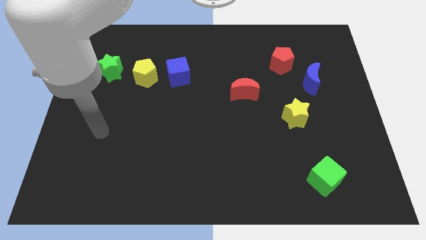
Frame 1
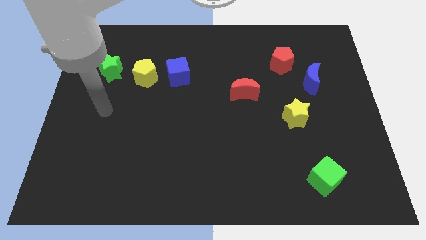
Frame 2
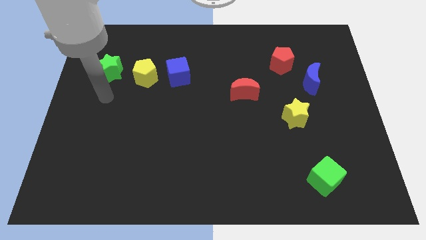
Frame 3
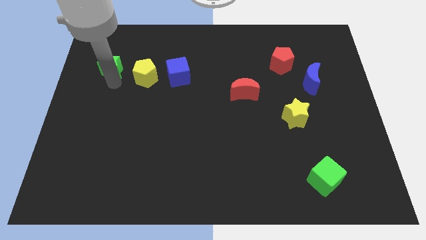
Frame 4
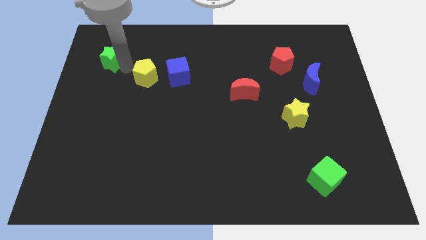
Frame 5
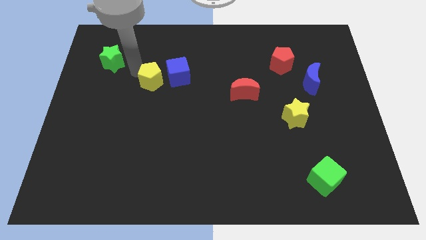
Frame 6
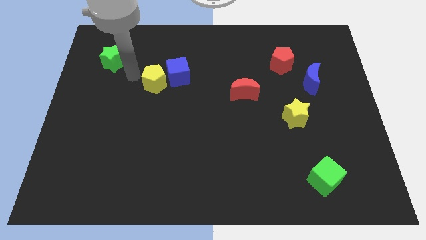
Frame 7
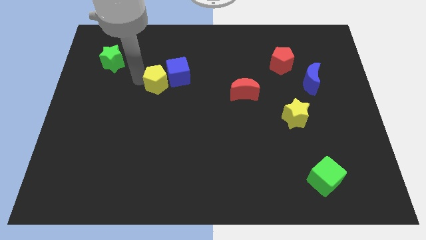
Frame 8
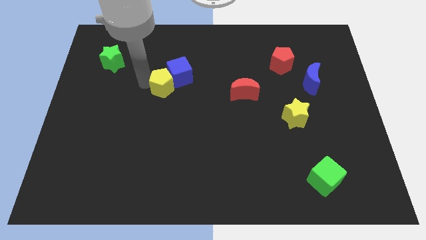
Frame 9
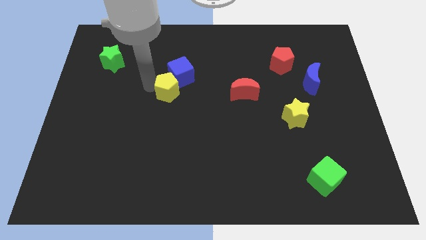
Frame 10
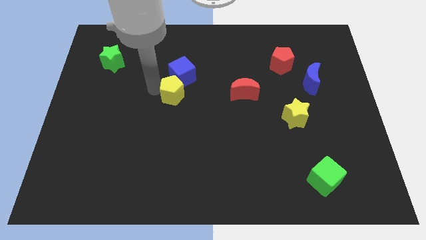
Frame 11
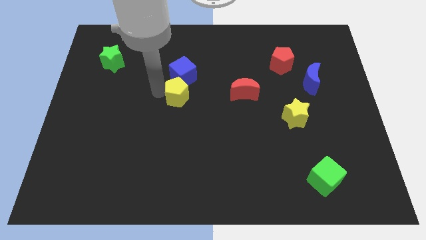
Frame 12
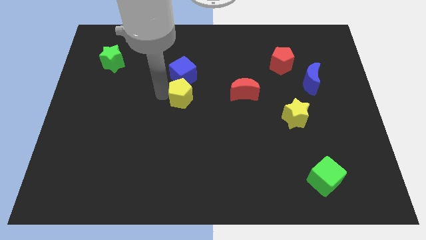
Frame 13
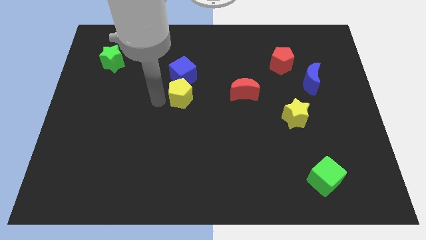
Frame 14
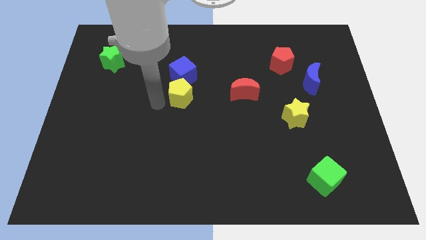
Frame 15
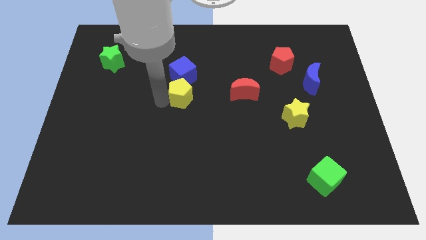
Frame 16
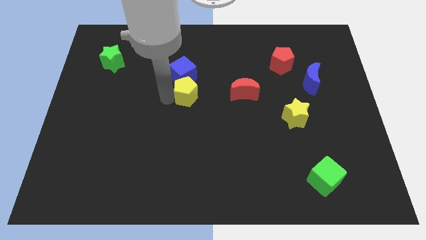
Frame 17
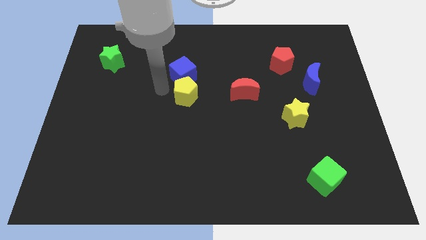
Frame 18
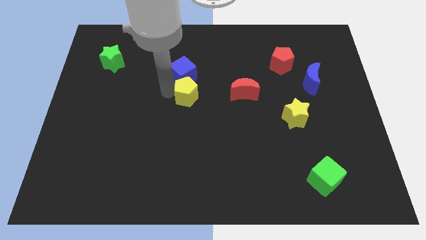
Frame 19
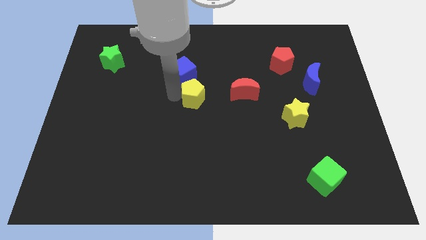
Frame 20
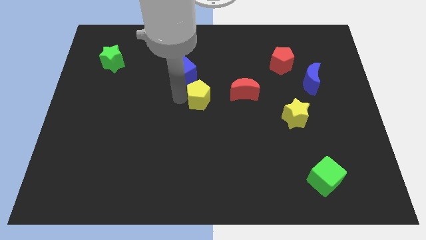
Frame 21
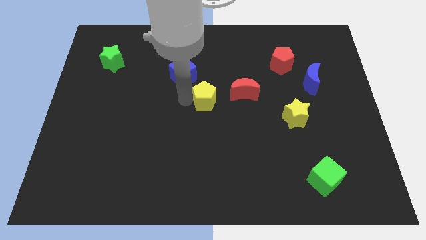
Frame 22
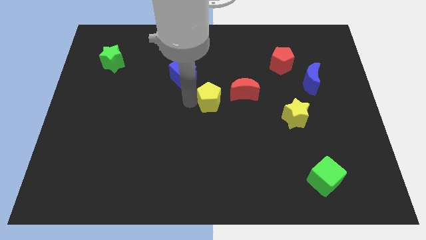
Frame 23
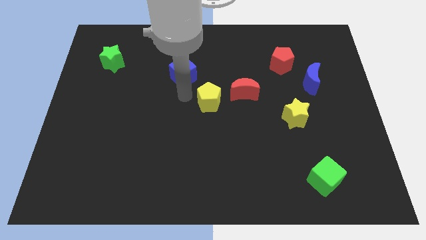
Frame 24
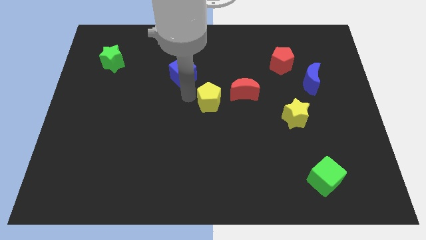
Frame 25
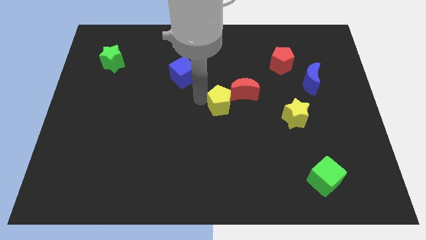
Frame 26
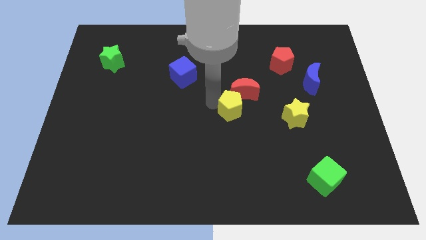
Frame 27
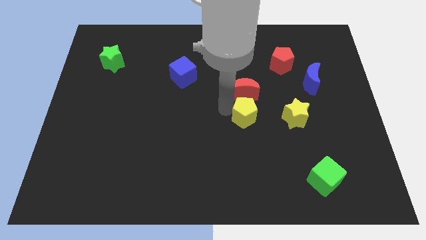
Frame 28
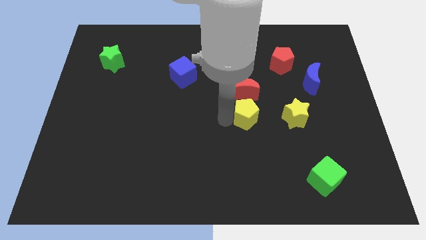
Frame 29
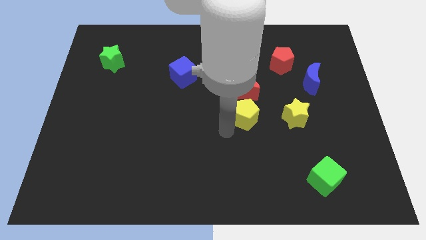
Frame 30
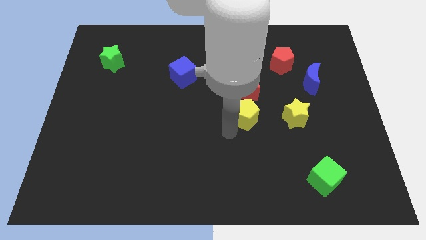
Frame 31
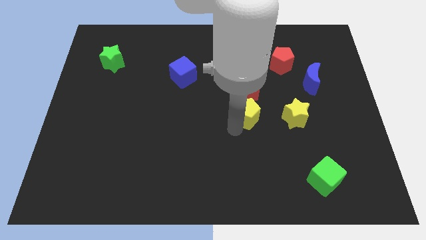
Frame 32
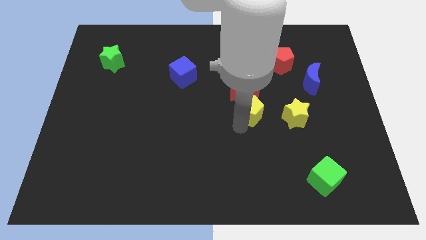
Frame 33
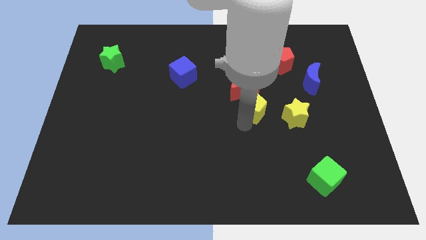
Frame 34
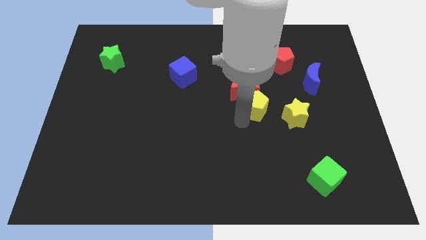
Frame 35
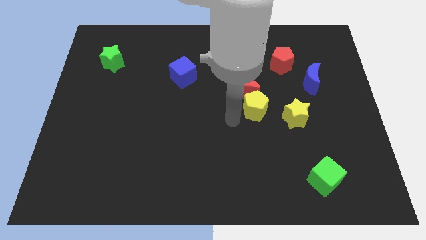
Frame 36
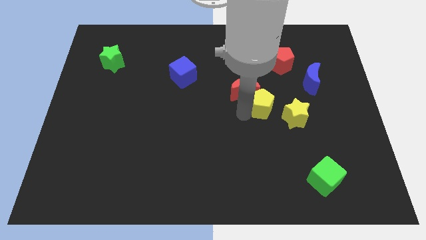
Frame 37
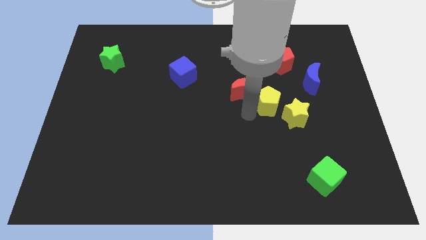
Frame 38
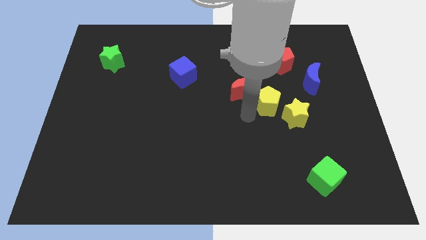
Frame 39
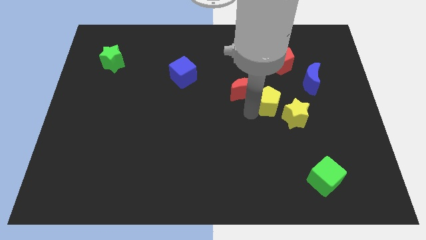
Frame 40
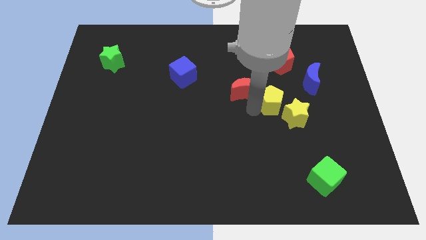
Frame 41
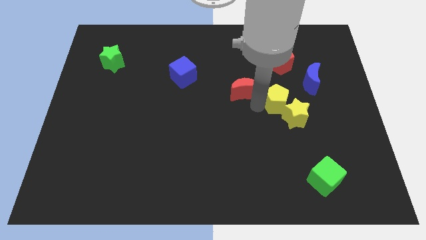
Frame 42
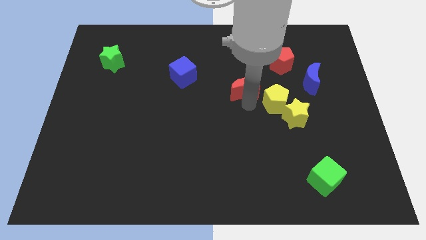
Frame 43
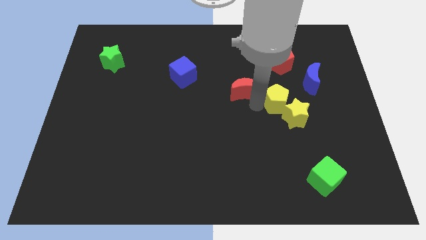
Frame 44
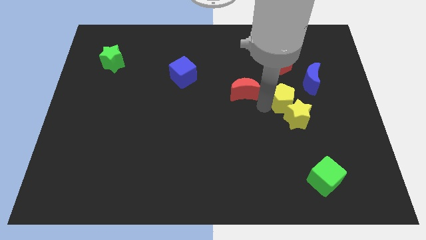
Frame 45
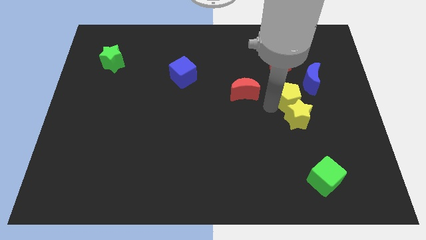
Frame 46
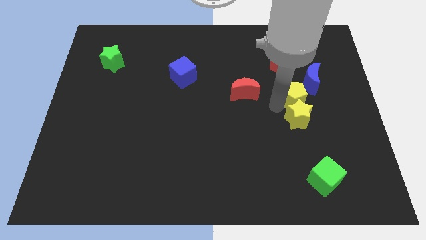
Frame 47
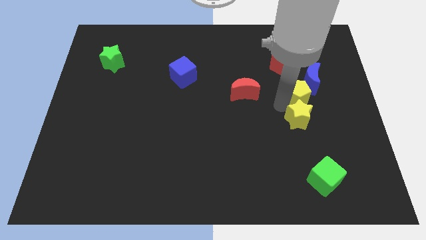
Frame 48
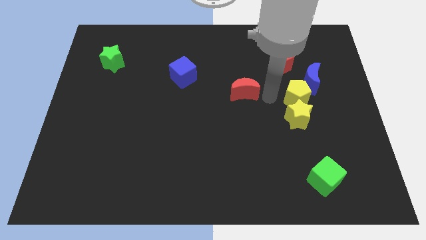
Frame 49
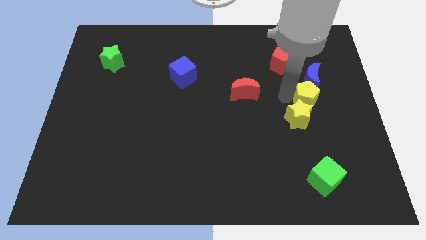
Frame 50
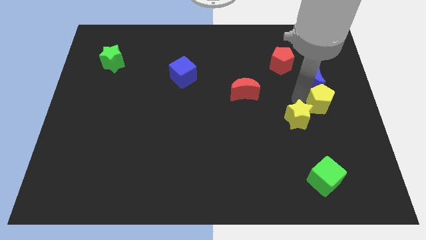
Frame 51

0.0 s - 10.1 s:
push the yellow pentagon to the center right

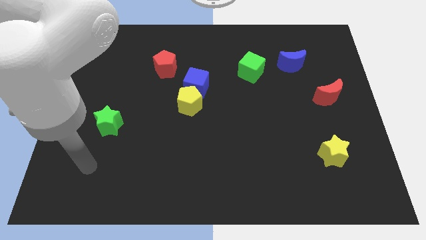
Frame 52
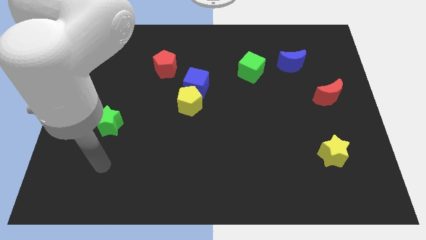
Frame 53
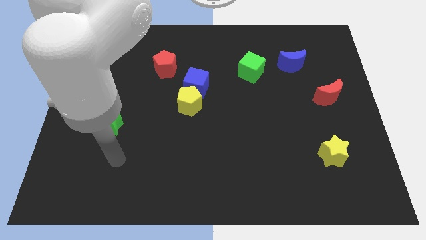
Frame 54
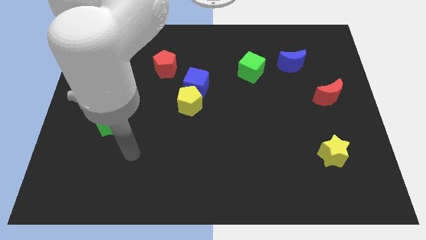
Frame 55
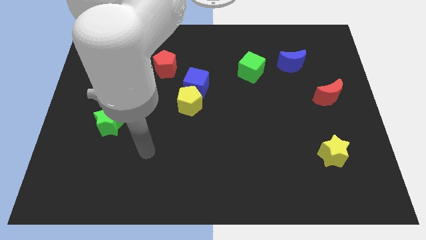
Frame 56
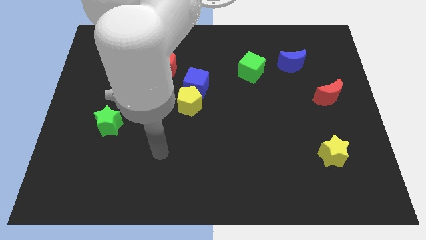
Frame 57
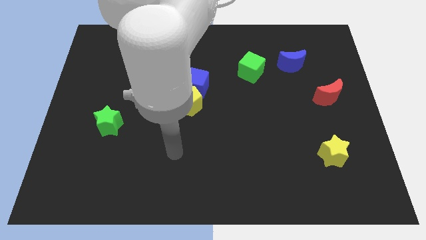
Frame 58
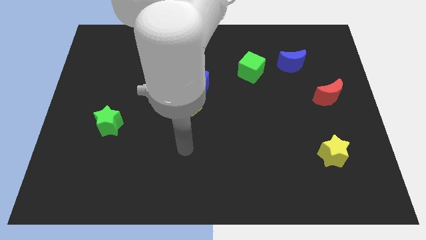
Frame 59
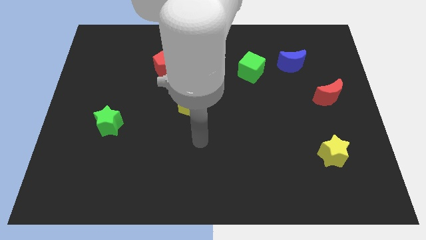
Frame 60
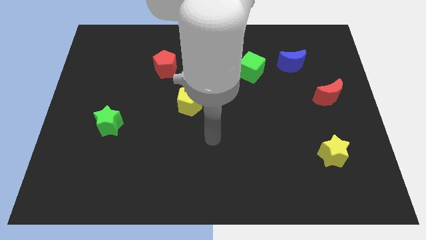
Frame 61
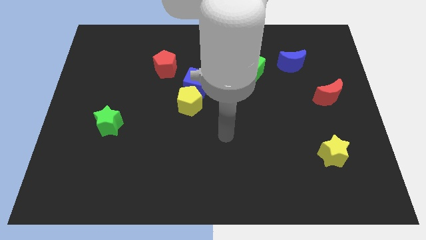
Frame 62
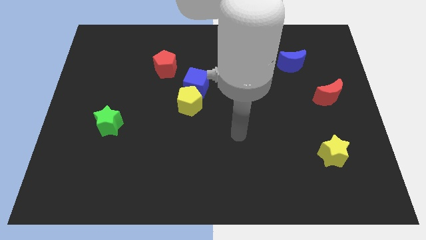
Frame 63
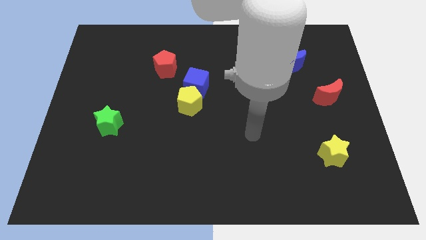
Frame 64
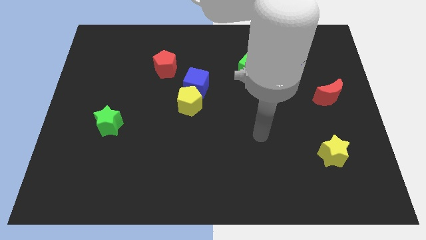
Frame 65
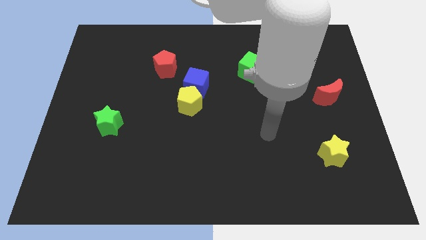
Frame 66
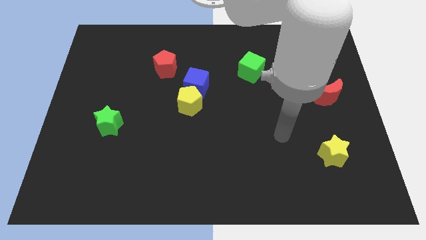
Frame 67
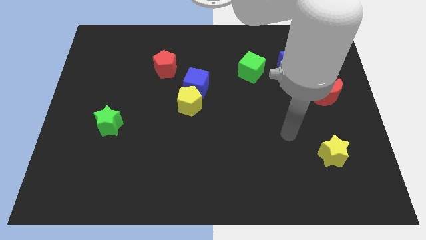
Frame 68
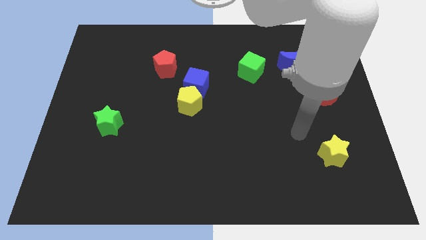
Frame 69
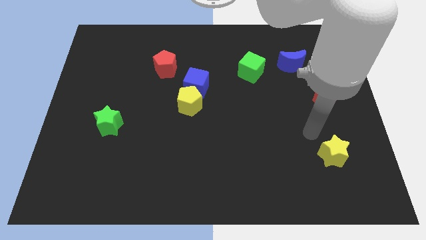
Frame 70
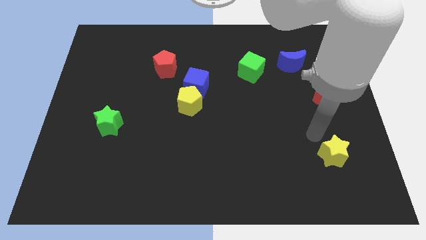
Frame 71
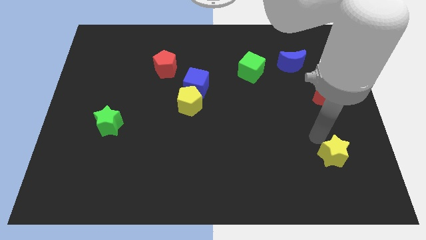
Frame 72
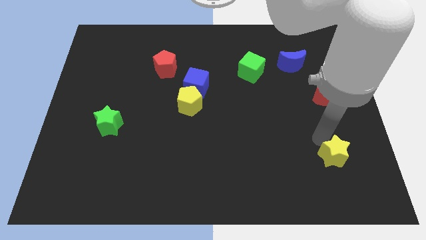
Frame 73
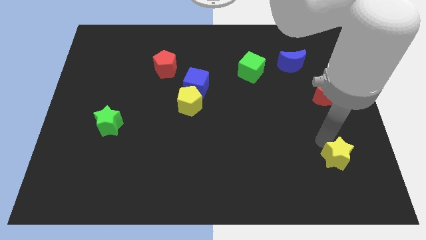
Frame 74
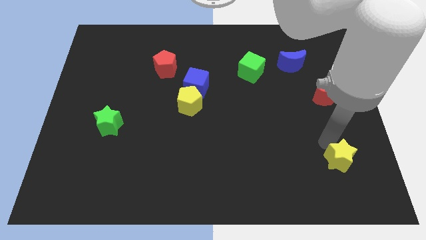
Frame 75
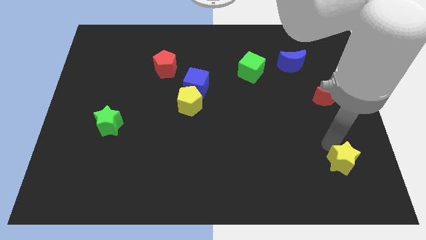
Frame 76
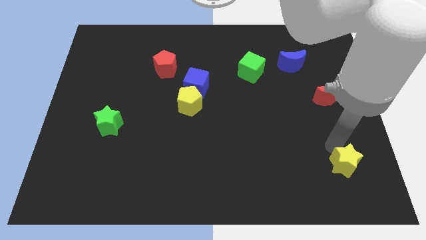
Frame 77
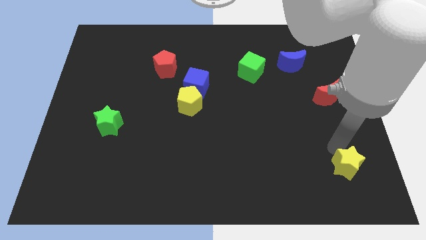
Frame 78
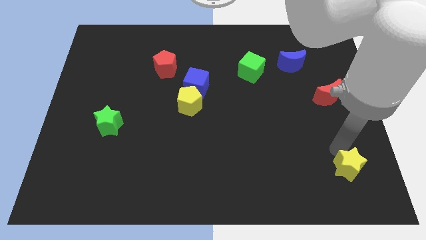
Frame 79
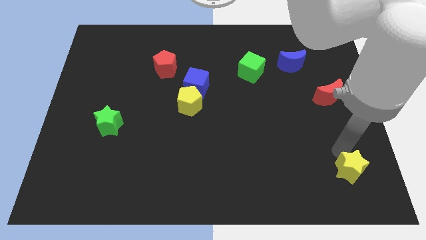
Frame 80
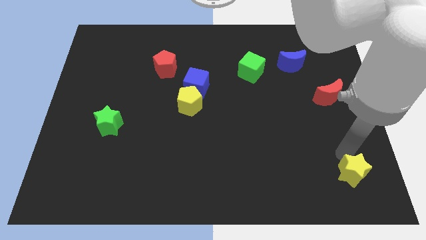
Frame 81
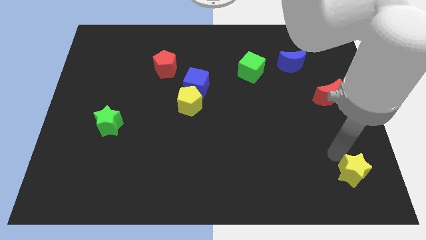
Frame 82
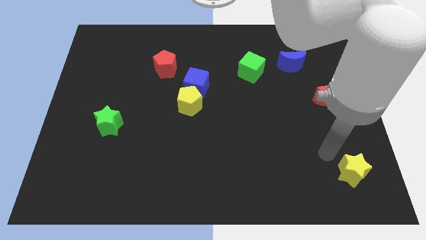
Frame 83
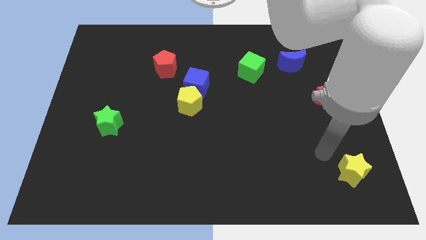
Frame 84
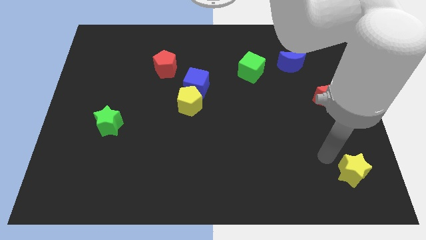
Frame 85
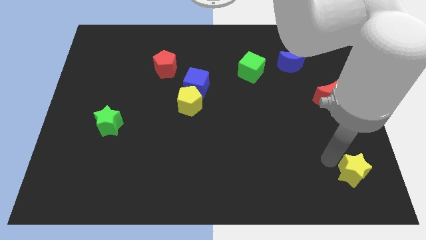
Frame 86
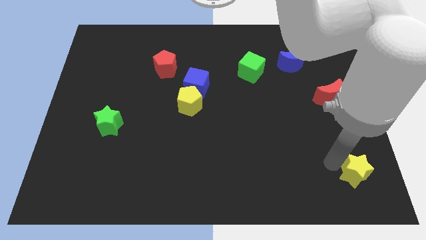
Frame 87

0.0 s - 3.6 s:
put the yellow star to the bottom right corner
